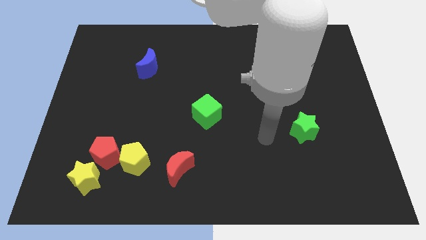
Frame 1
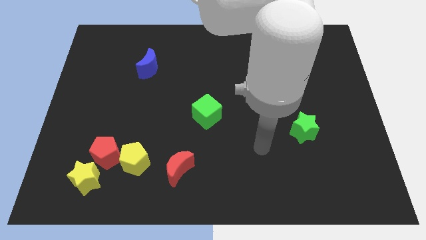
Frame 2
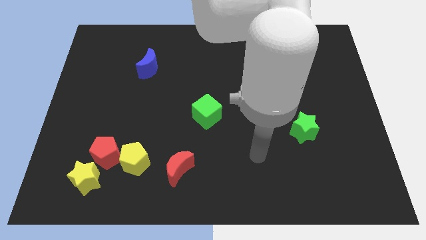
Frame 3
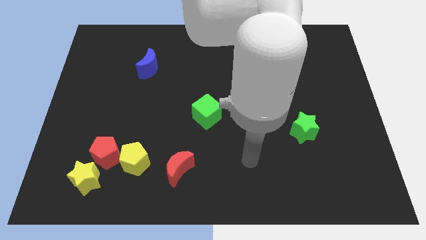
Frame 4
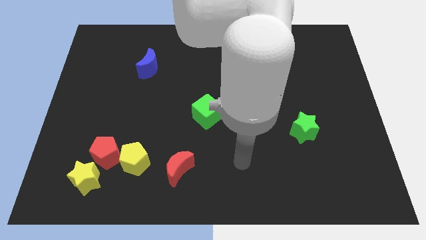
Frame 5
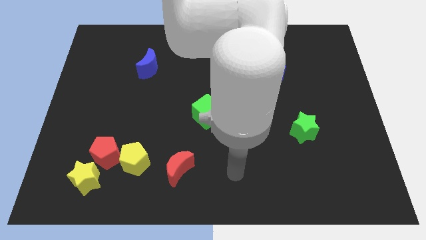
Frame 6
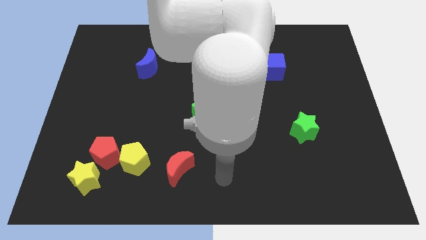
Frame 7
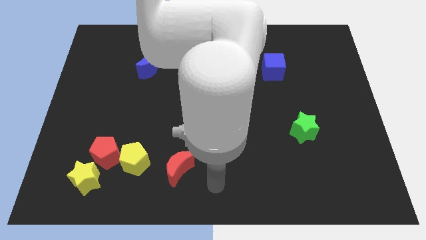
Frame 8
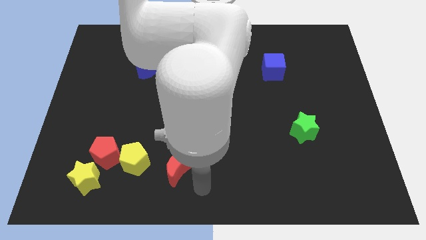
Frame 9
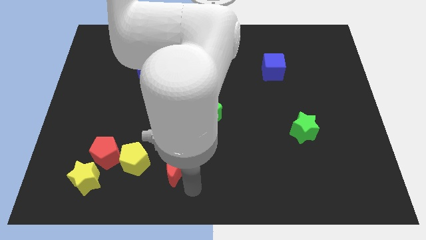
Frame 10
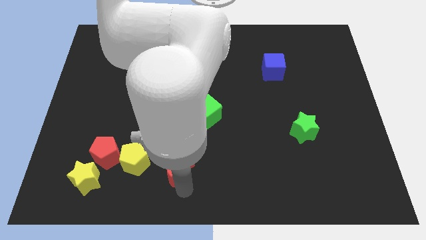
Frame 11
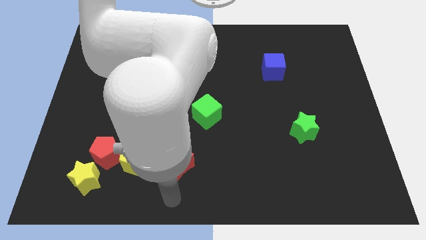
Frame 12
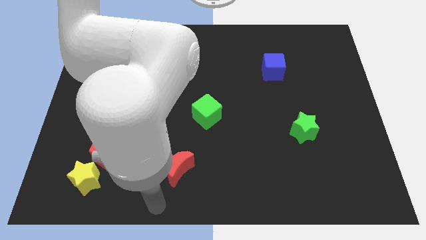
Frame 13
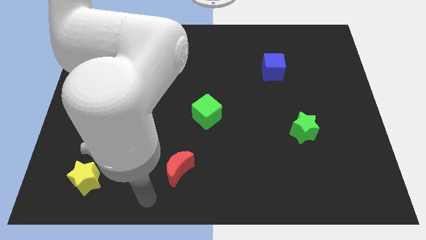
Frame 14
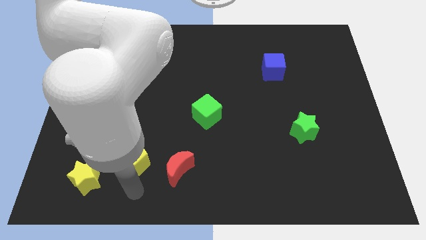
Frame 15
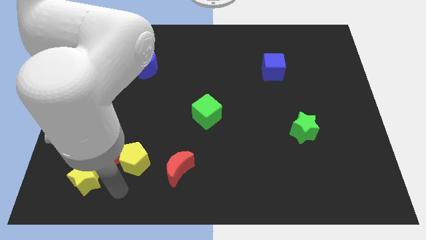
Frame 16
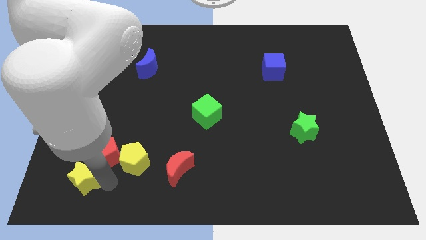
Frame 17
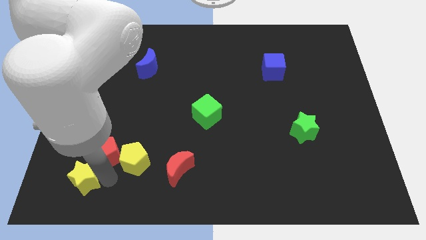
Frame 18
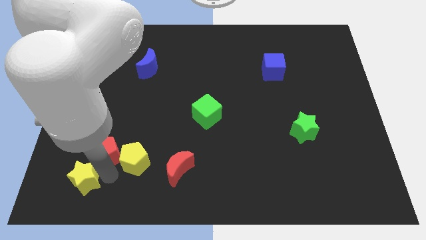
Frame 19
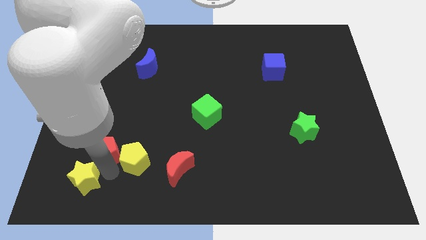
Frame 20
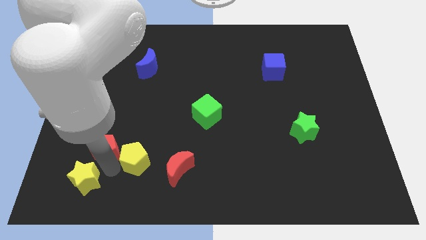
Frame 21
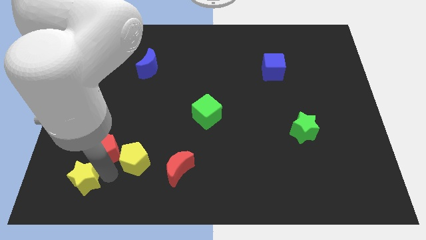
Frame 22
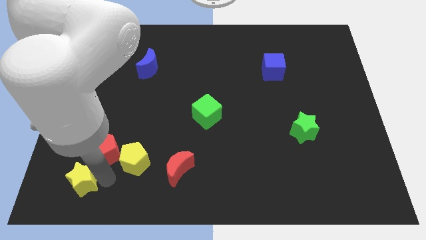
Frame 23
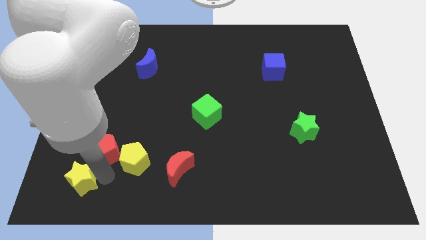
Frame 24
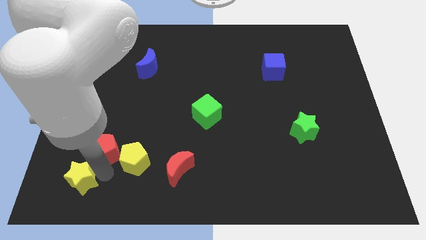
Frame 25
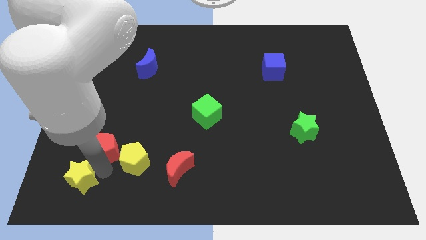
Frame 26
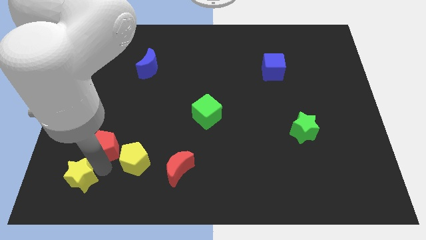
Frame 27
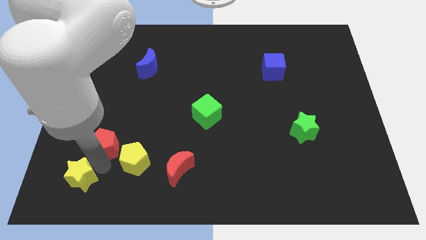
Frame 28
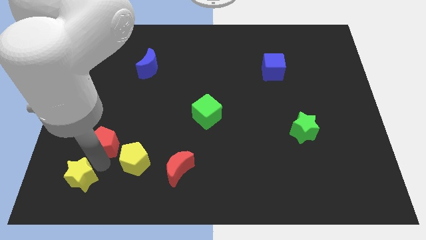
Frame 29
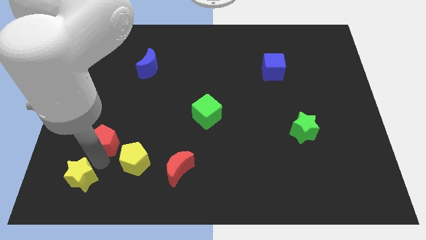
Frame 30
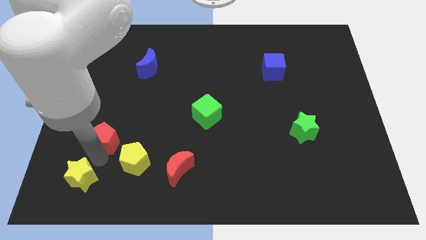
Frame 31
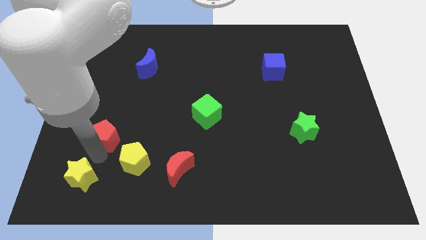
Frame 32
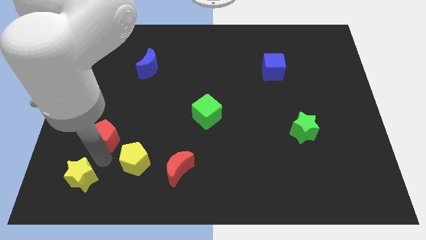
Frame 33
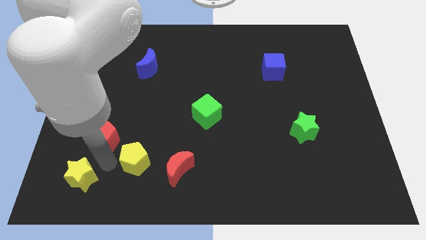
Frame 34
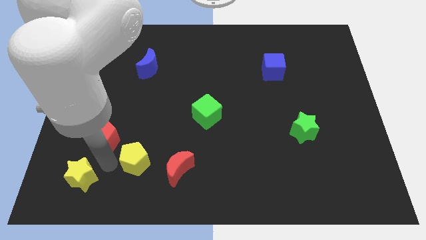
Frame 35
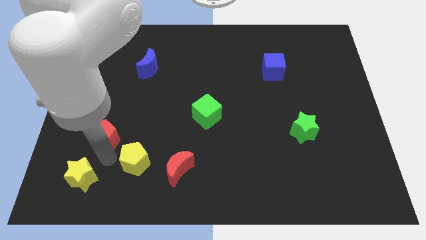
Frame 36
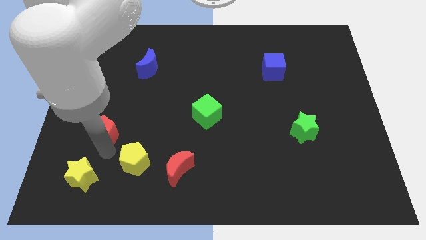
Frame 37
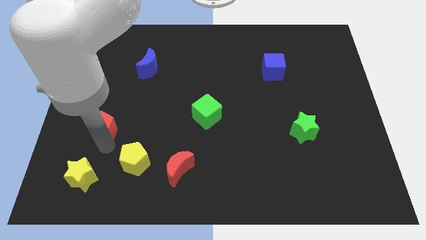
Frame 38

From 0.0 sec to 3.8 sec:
move the red pentagon away from the yellow pentagon and yellow star

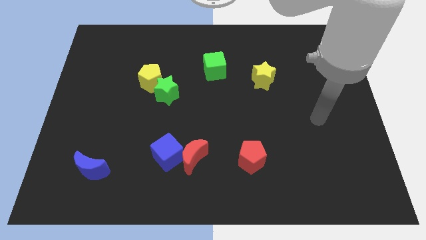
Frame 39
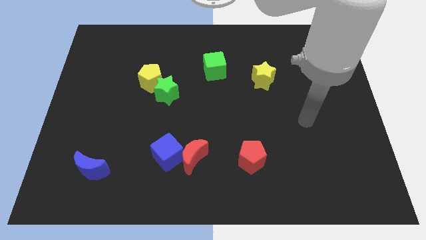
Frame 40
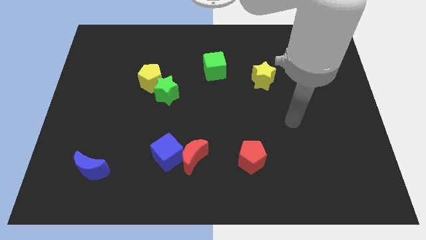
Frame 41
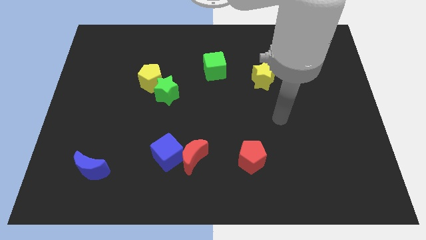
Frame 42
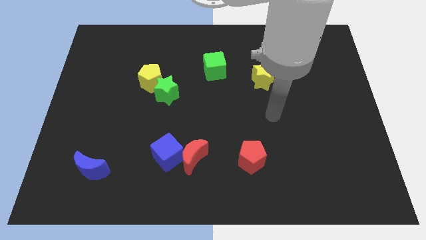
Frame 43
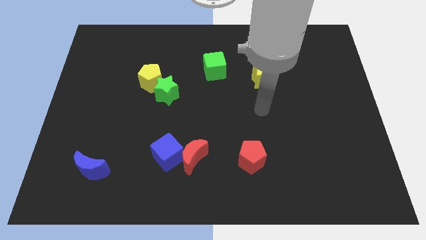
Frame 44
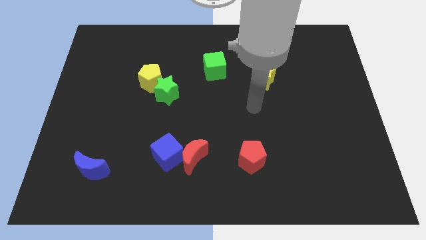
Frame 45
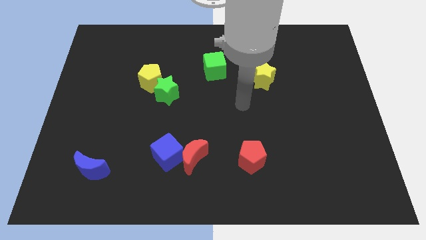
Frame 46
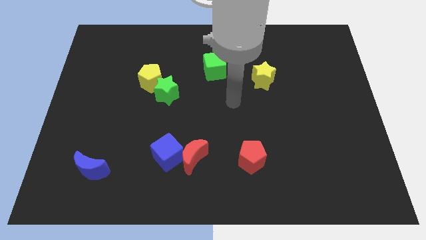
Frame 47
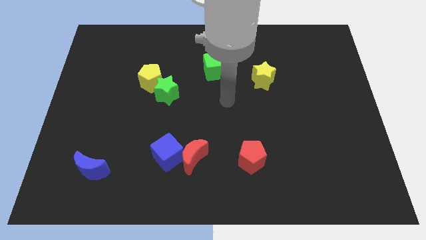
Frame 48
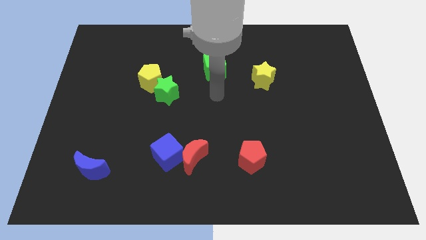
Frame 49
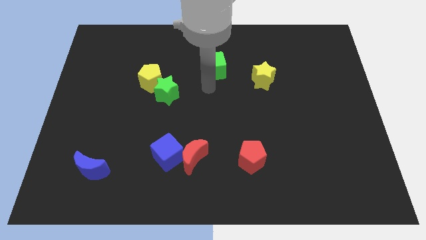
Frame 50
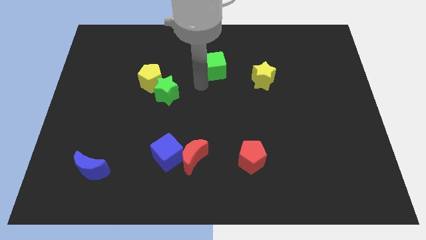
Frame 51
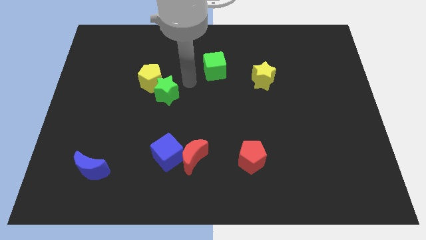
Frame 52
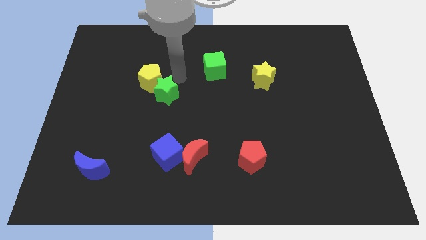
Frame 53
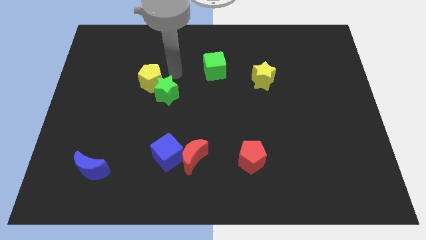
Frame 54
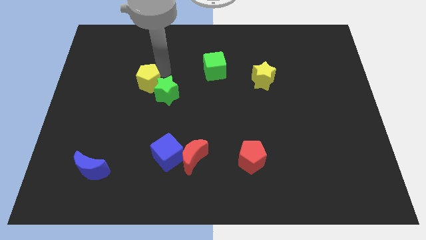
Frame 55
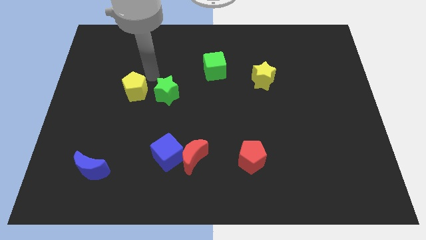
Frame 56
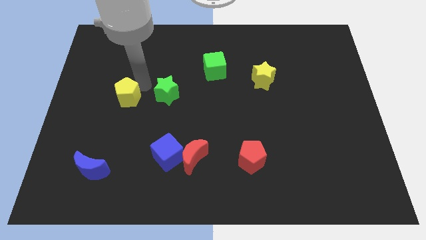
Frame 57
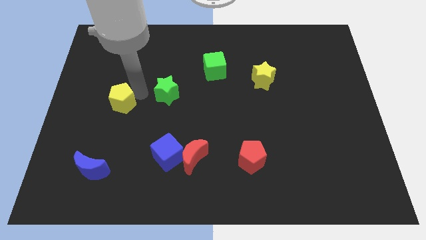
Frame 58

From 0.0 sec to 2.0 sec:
pull the green star apart from the yellow pentagon

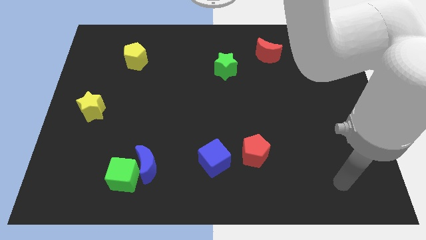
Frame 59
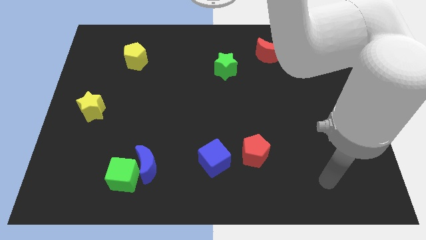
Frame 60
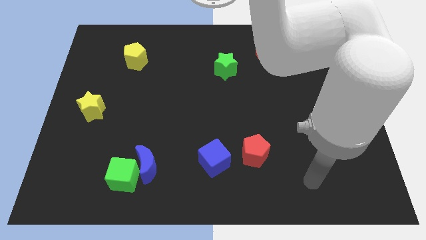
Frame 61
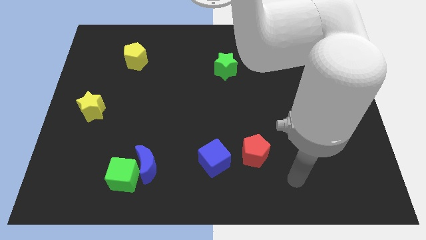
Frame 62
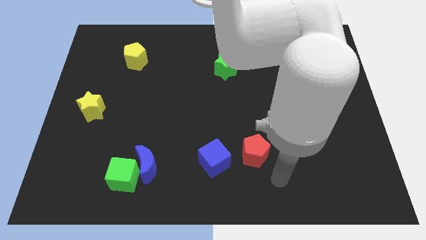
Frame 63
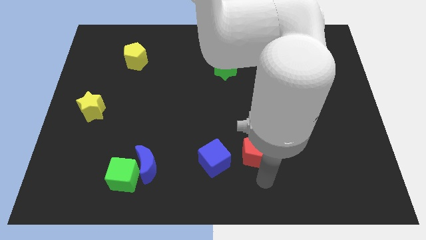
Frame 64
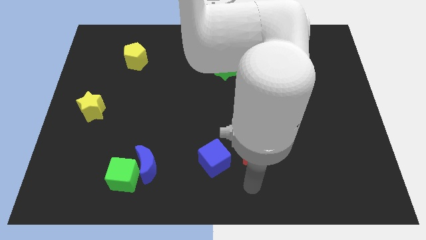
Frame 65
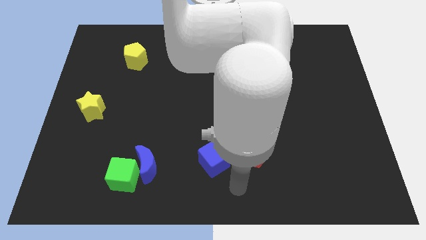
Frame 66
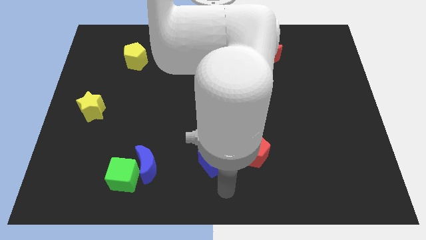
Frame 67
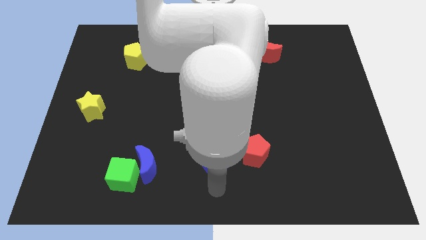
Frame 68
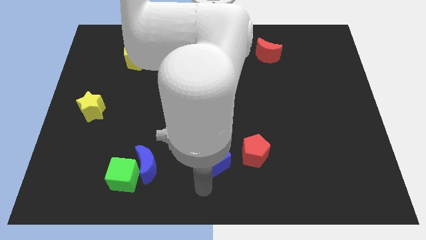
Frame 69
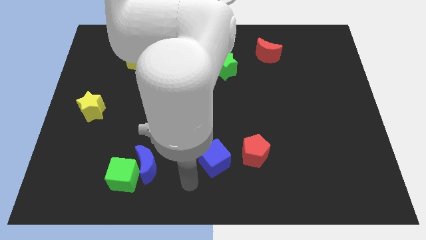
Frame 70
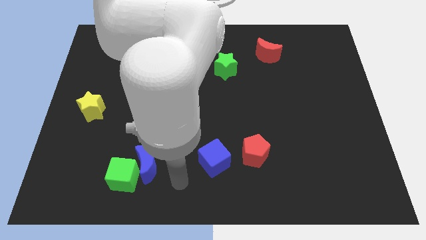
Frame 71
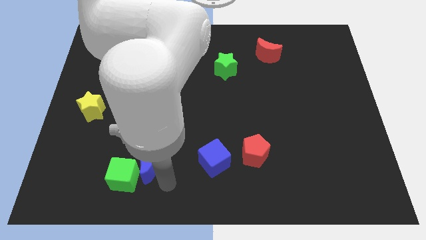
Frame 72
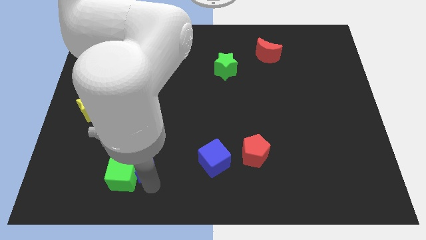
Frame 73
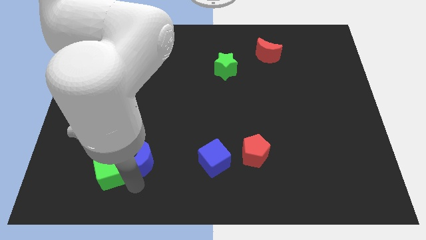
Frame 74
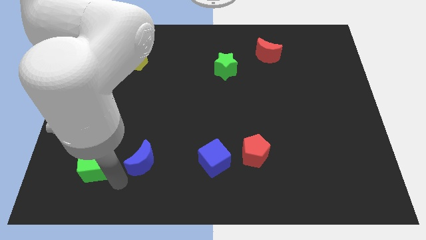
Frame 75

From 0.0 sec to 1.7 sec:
pull the blue moon apart from the green cube

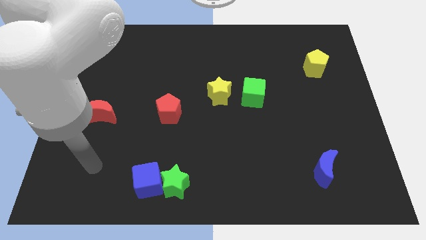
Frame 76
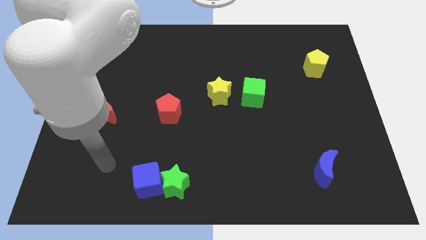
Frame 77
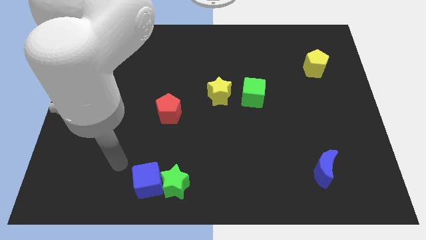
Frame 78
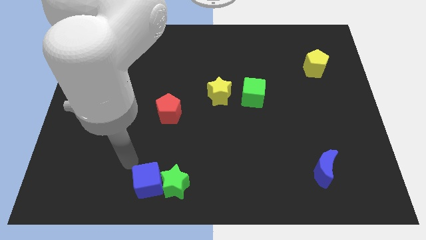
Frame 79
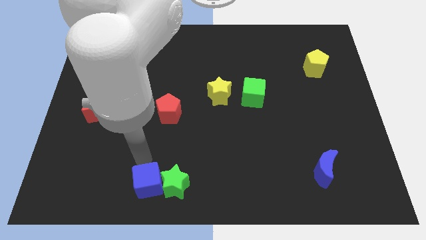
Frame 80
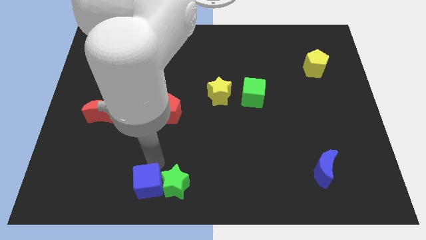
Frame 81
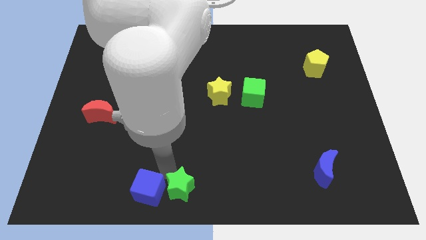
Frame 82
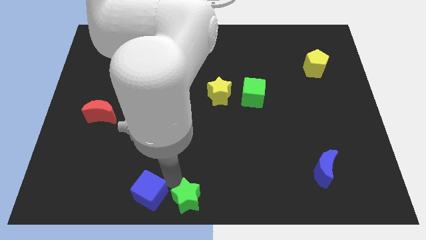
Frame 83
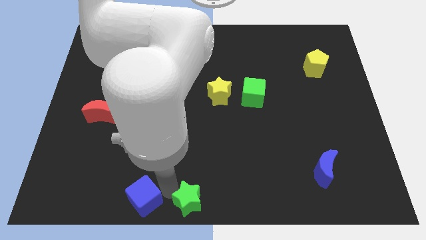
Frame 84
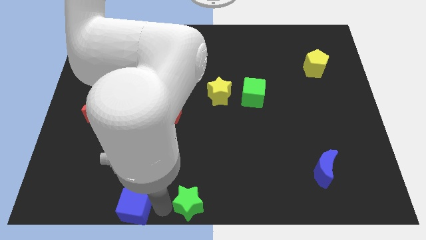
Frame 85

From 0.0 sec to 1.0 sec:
pull the blue cube apart from the green star

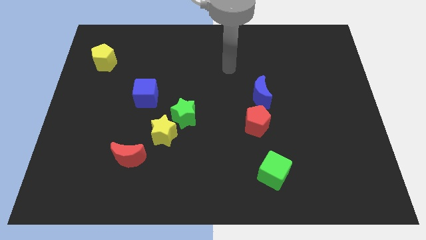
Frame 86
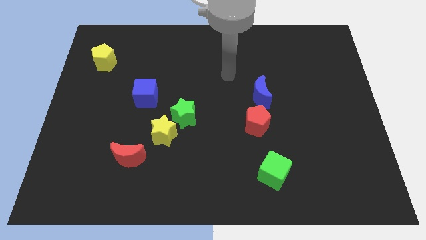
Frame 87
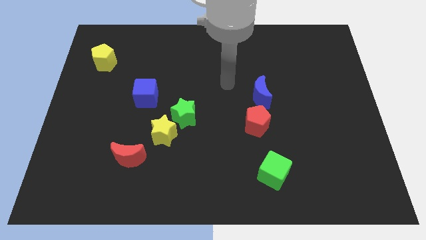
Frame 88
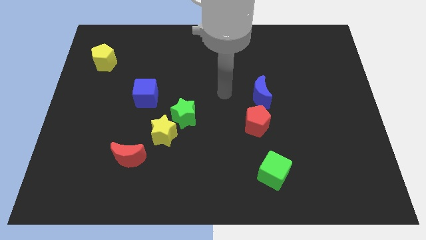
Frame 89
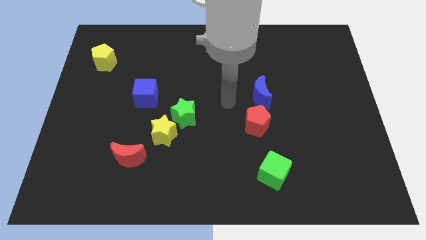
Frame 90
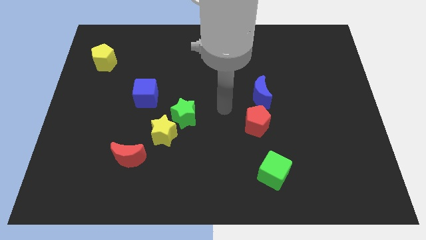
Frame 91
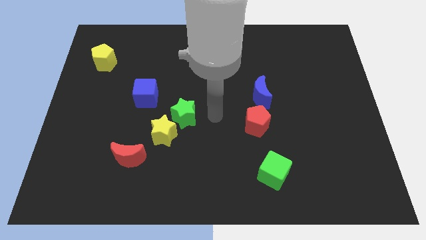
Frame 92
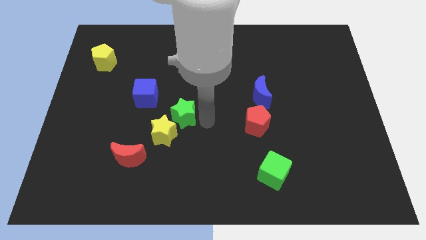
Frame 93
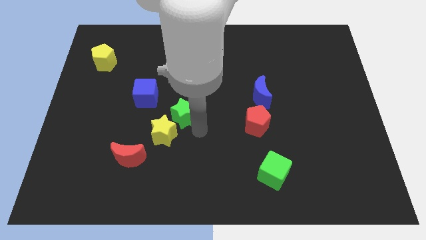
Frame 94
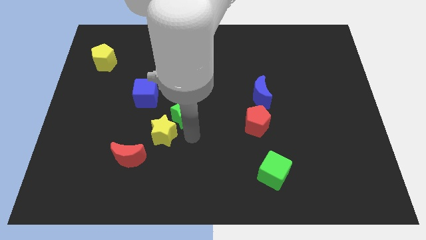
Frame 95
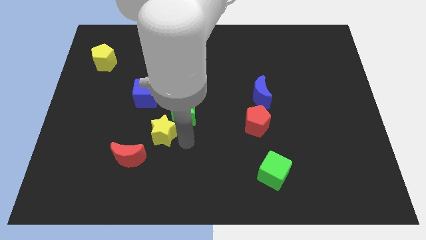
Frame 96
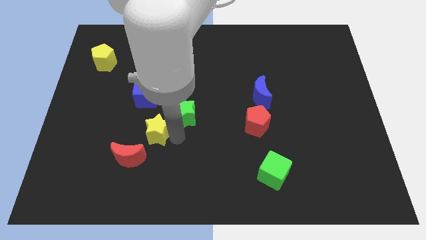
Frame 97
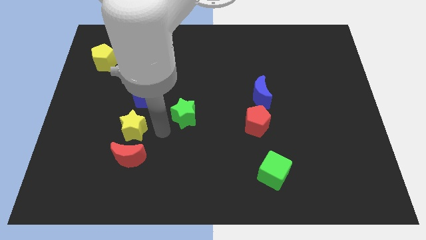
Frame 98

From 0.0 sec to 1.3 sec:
pull the green star apart from the yellow star
